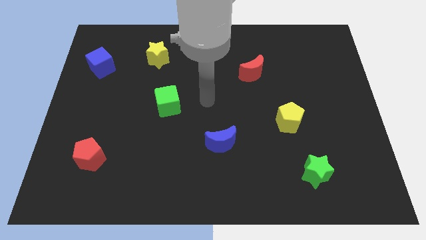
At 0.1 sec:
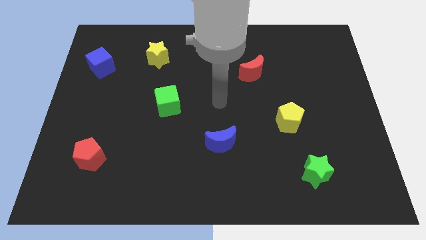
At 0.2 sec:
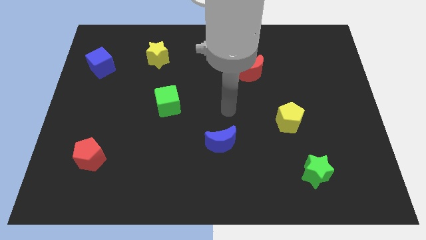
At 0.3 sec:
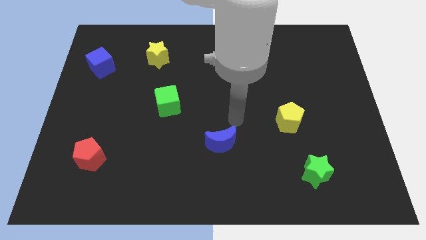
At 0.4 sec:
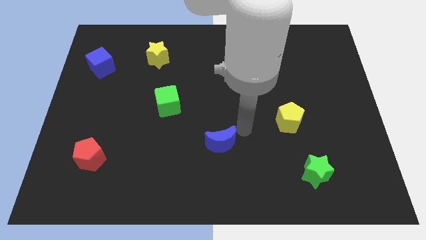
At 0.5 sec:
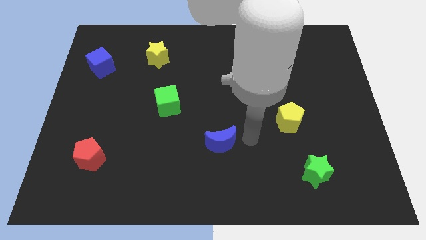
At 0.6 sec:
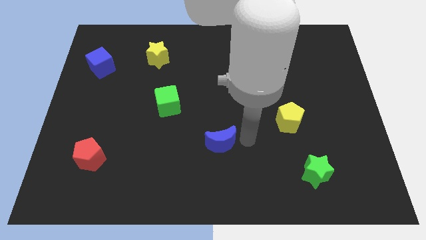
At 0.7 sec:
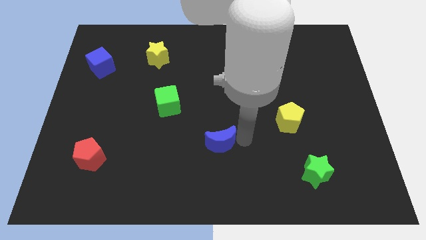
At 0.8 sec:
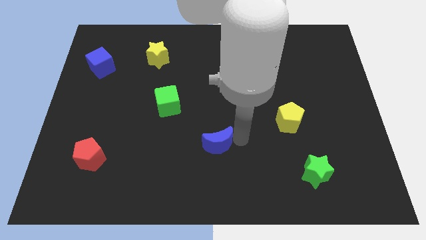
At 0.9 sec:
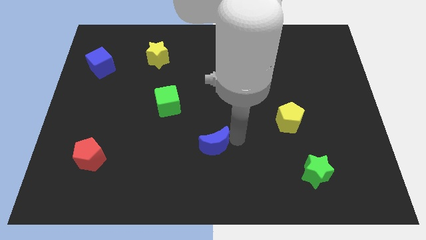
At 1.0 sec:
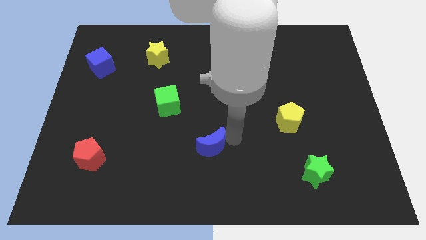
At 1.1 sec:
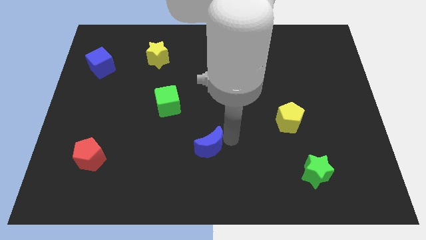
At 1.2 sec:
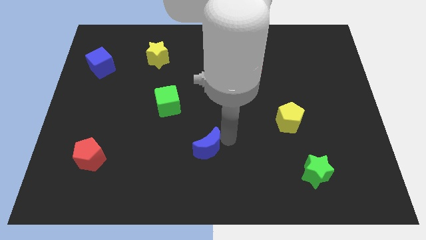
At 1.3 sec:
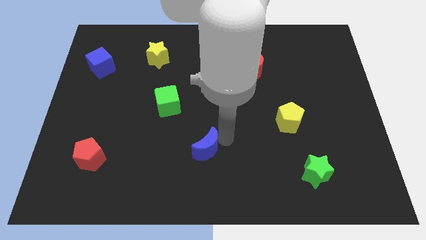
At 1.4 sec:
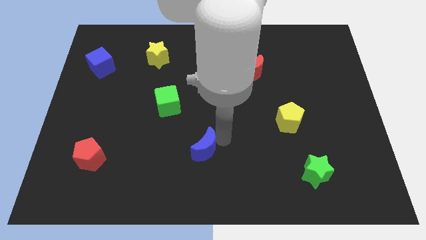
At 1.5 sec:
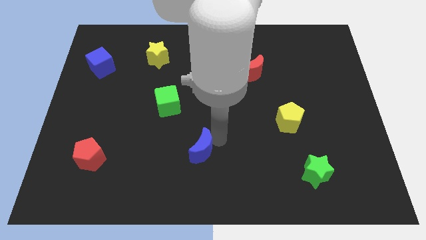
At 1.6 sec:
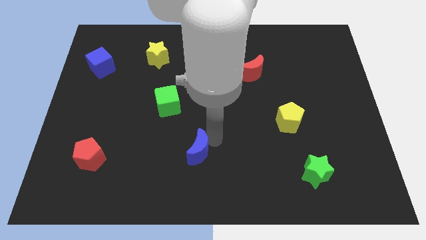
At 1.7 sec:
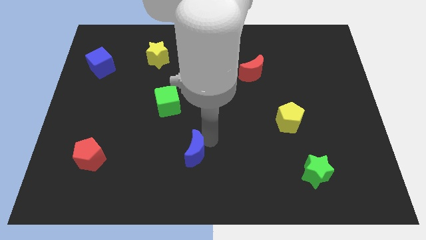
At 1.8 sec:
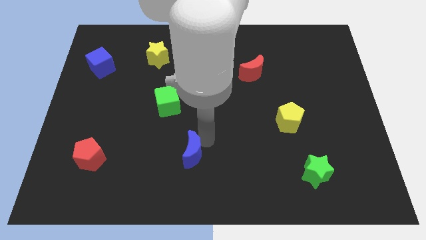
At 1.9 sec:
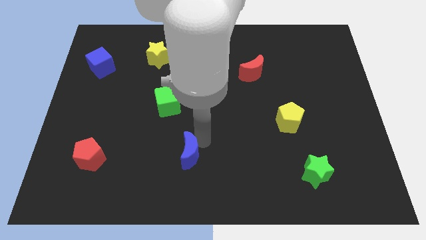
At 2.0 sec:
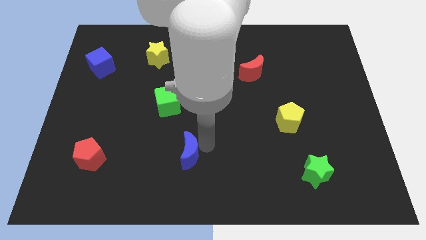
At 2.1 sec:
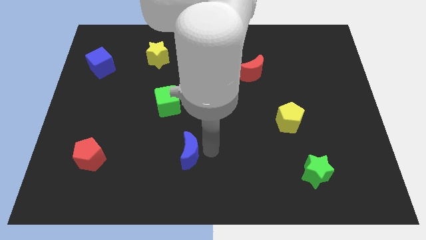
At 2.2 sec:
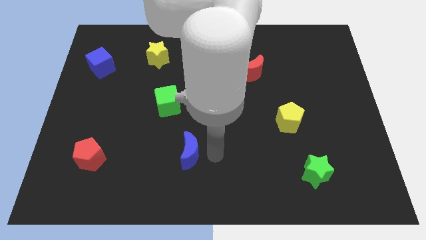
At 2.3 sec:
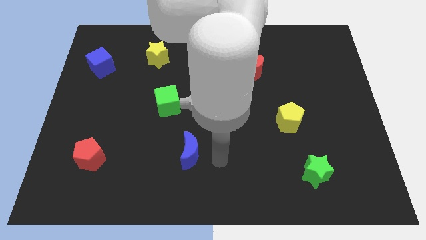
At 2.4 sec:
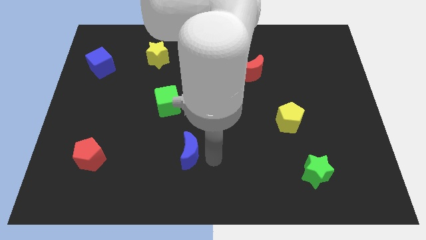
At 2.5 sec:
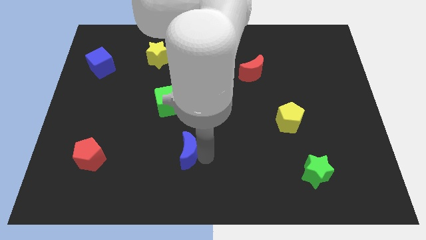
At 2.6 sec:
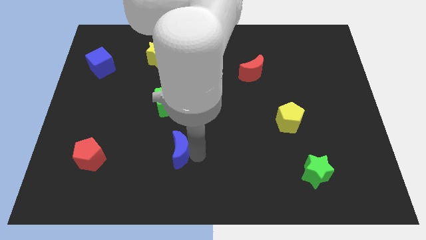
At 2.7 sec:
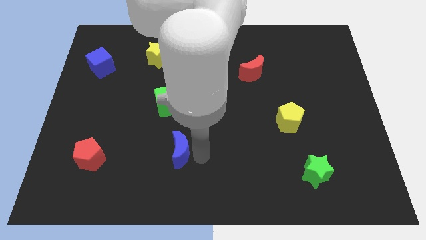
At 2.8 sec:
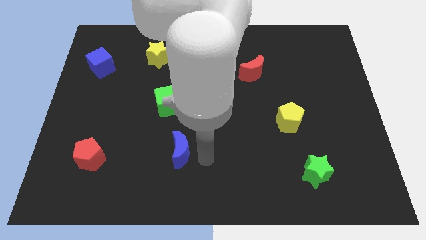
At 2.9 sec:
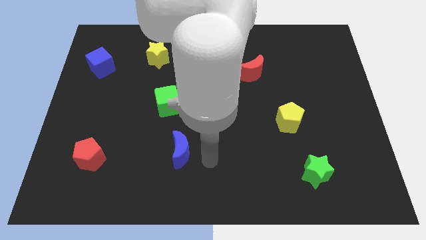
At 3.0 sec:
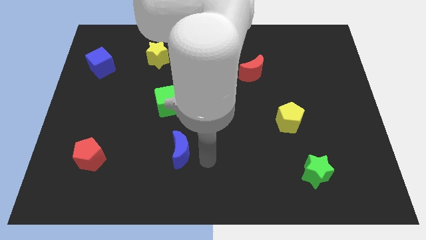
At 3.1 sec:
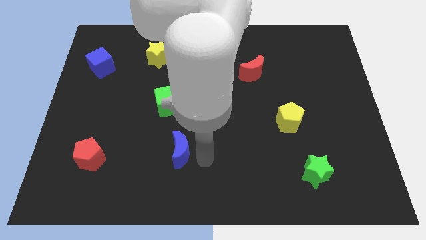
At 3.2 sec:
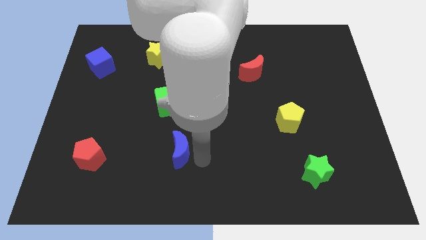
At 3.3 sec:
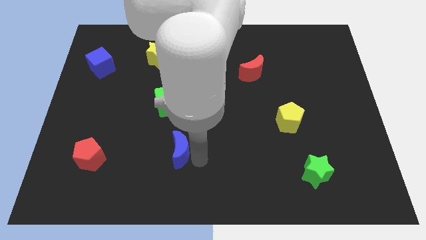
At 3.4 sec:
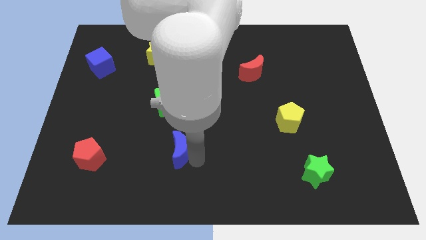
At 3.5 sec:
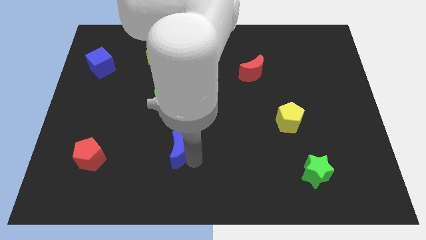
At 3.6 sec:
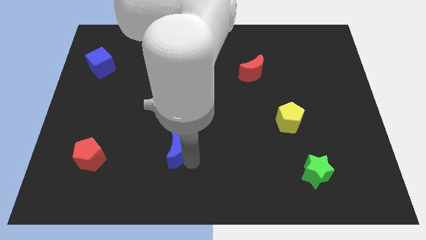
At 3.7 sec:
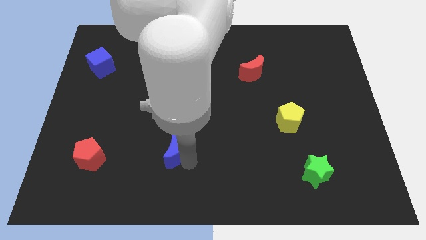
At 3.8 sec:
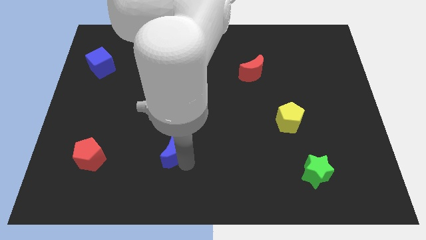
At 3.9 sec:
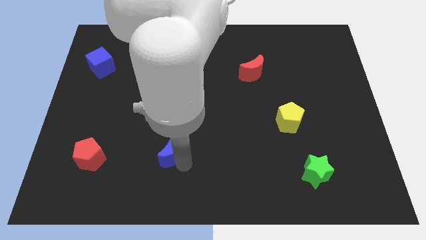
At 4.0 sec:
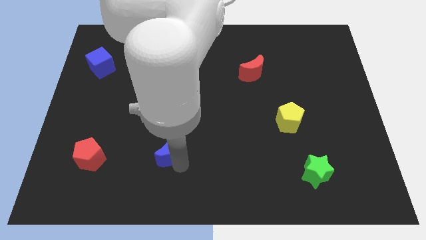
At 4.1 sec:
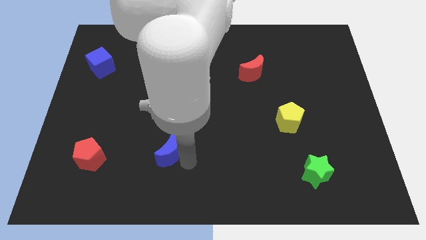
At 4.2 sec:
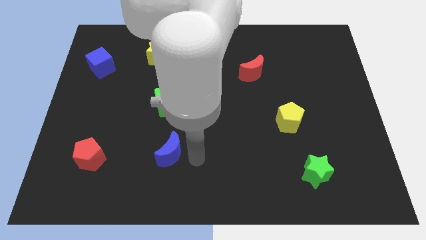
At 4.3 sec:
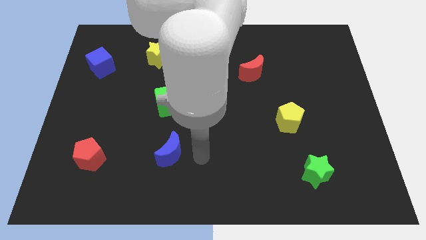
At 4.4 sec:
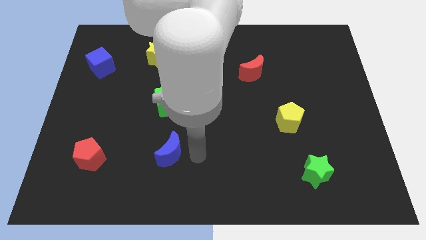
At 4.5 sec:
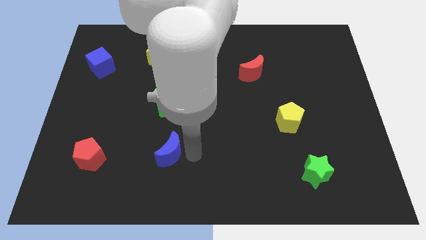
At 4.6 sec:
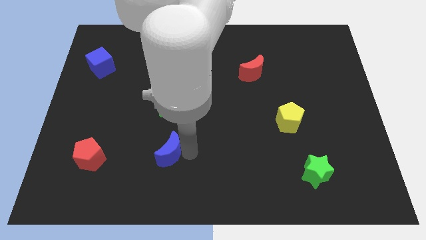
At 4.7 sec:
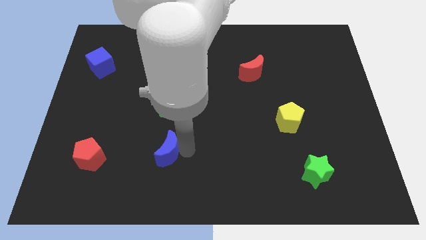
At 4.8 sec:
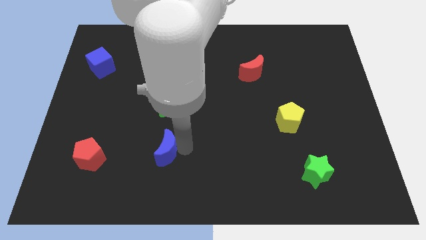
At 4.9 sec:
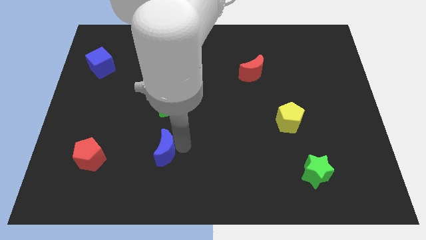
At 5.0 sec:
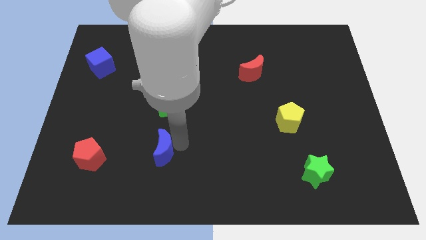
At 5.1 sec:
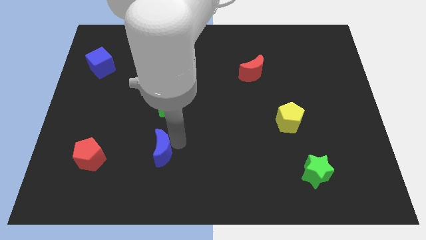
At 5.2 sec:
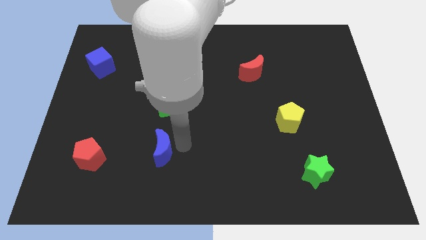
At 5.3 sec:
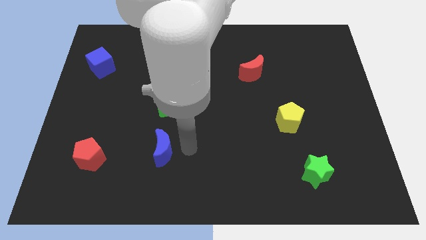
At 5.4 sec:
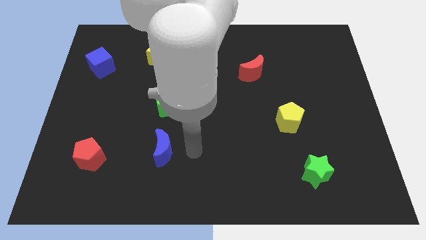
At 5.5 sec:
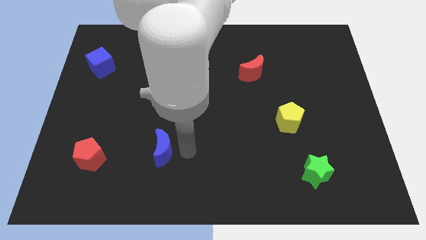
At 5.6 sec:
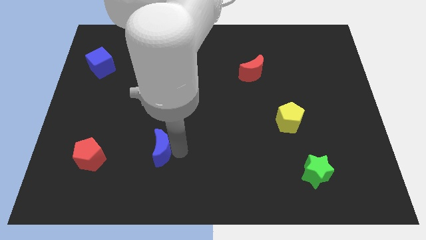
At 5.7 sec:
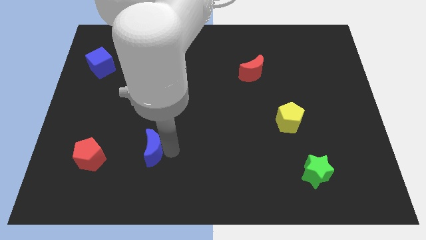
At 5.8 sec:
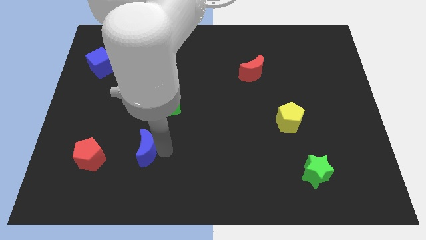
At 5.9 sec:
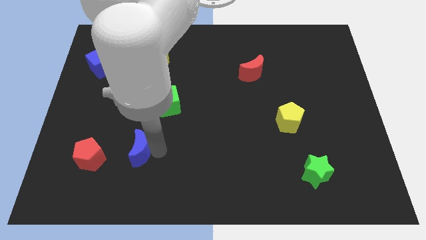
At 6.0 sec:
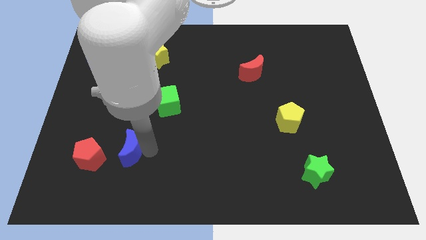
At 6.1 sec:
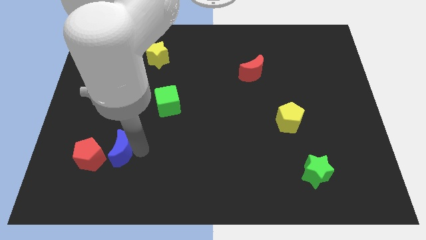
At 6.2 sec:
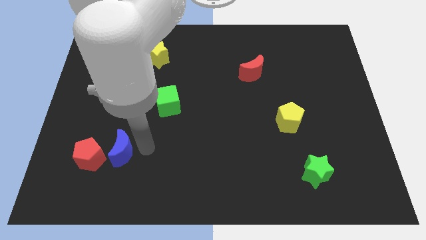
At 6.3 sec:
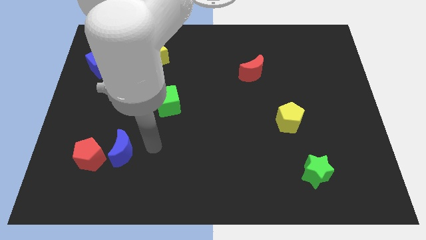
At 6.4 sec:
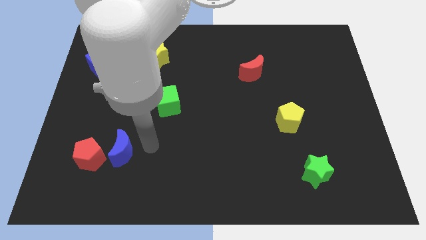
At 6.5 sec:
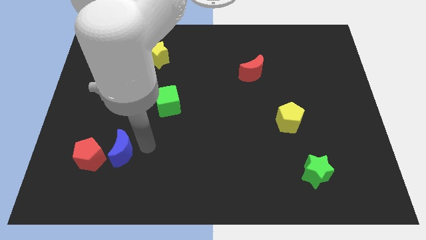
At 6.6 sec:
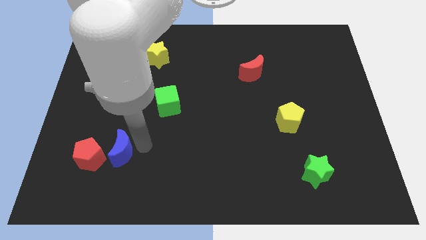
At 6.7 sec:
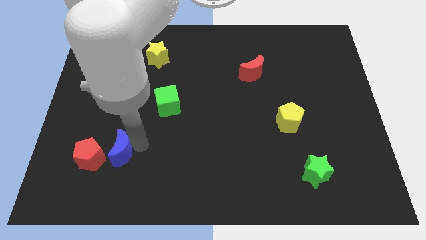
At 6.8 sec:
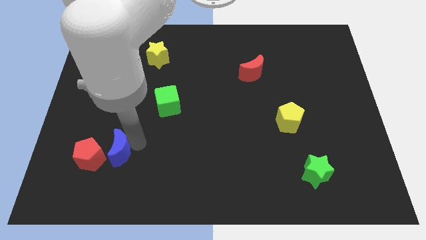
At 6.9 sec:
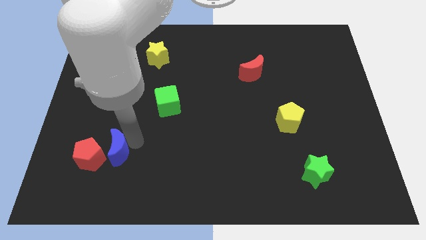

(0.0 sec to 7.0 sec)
slide the blue moon next to the red pentagon

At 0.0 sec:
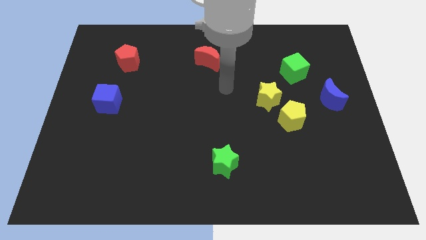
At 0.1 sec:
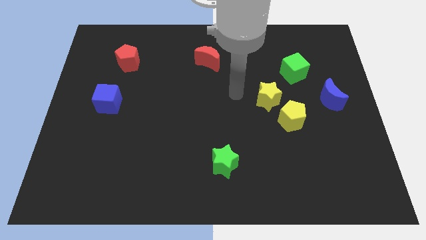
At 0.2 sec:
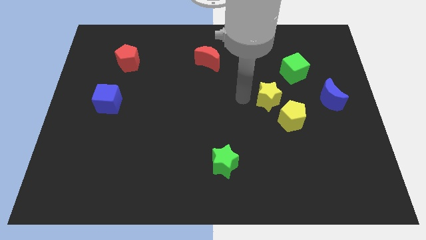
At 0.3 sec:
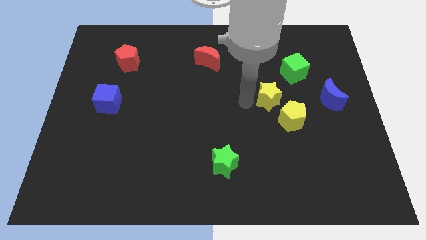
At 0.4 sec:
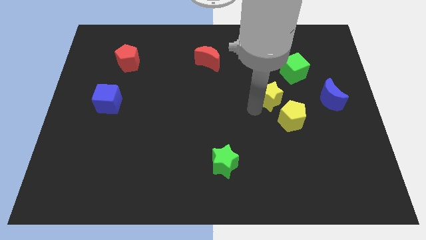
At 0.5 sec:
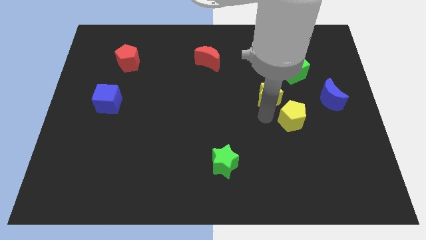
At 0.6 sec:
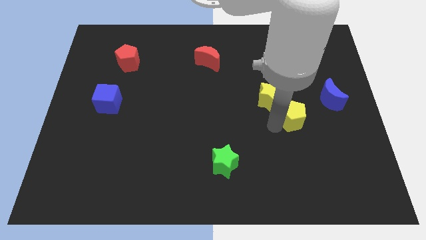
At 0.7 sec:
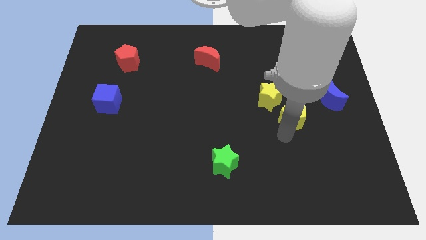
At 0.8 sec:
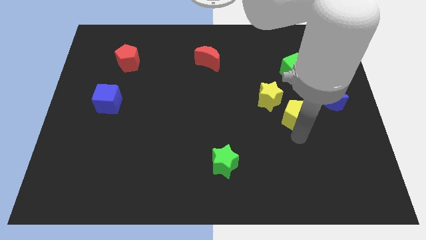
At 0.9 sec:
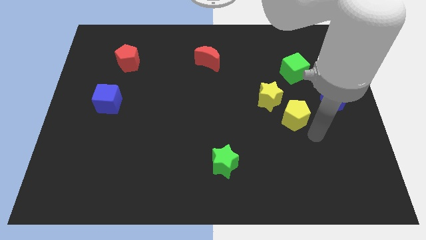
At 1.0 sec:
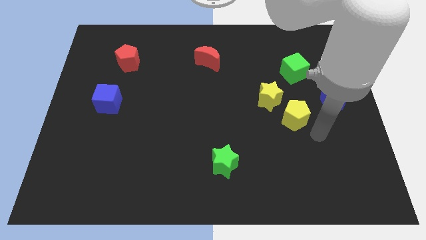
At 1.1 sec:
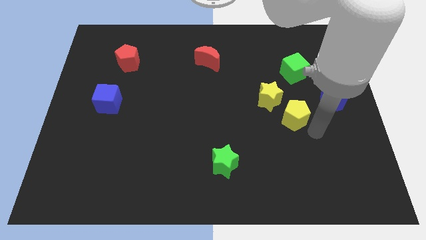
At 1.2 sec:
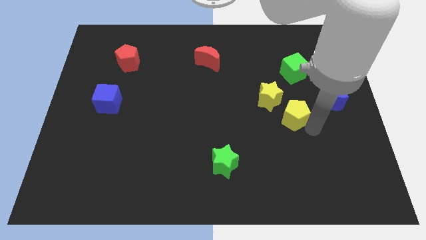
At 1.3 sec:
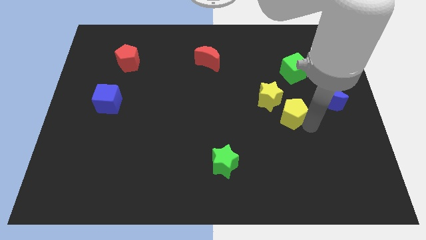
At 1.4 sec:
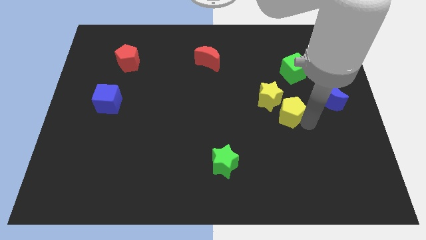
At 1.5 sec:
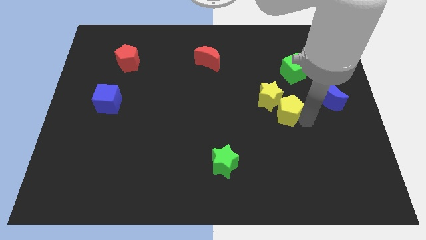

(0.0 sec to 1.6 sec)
move the yellow pentagon towards the yellow star
